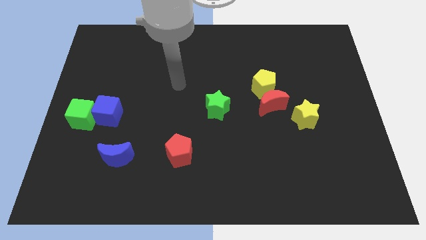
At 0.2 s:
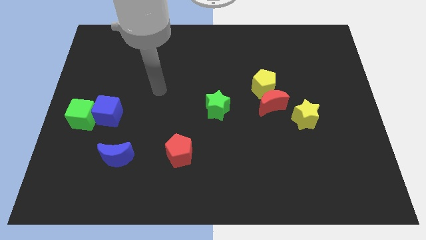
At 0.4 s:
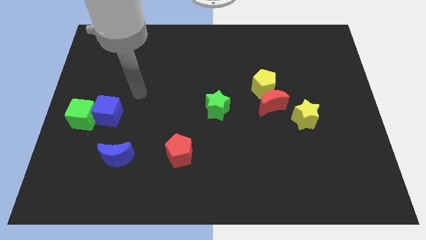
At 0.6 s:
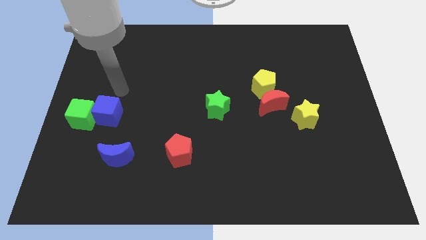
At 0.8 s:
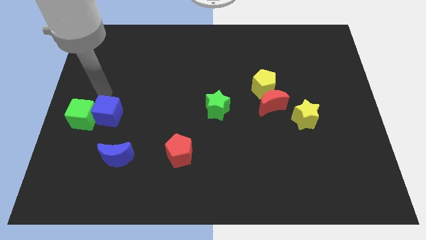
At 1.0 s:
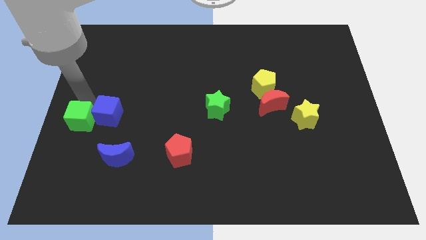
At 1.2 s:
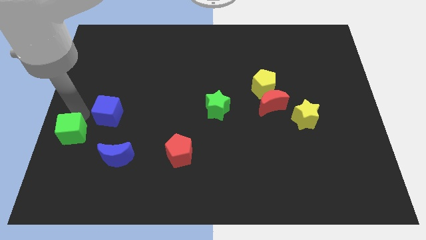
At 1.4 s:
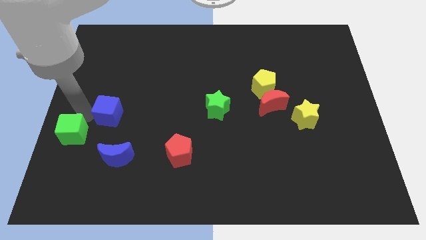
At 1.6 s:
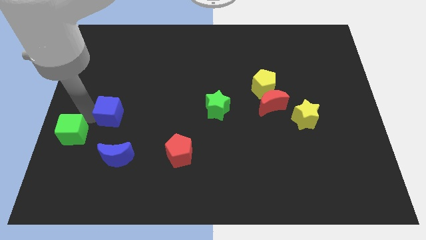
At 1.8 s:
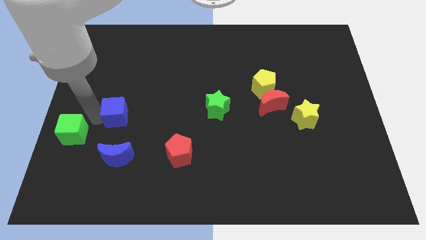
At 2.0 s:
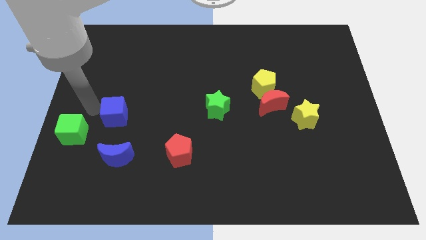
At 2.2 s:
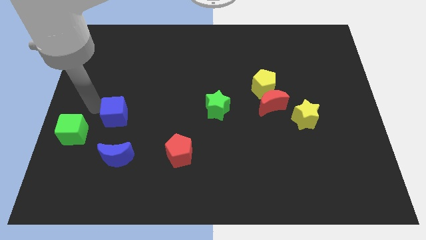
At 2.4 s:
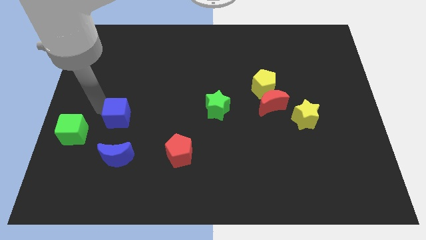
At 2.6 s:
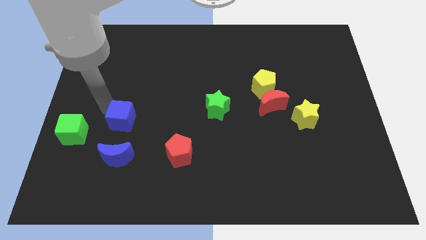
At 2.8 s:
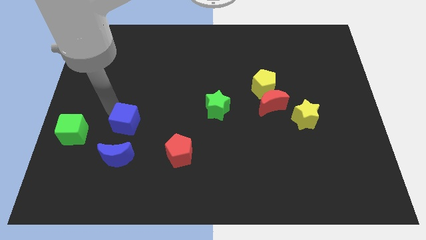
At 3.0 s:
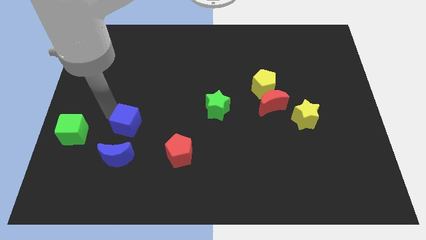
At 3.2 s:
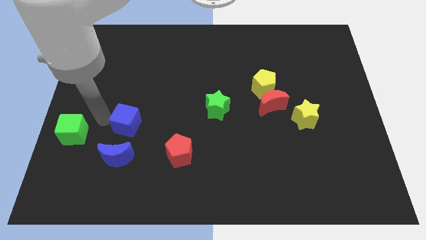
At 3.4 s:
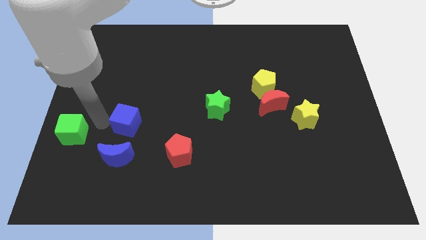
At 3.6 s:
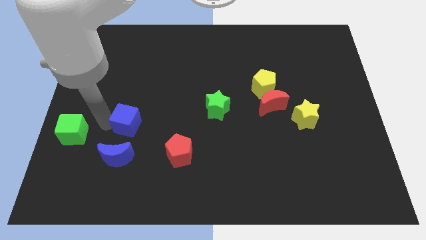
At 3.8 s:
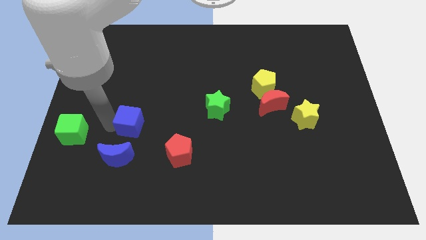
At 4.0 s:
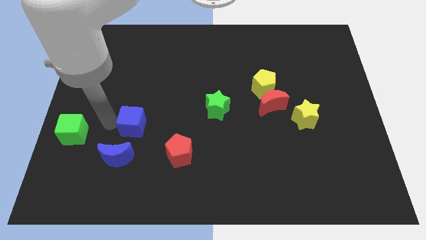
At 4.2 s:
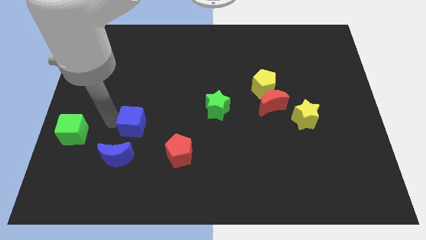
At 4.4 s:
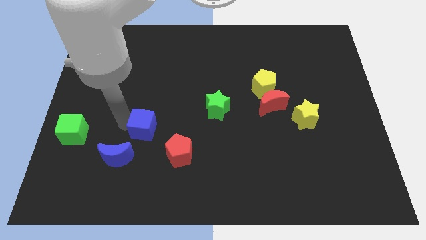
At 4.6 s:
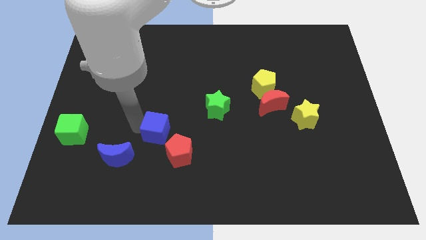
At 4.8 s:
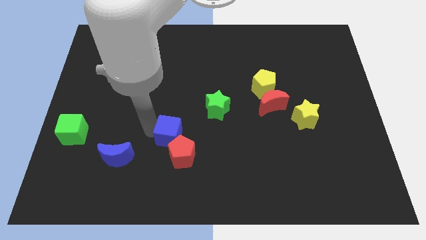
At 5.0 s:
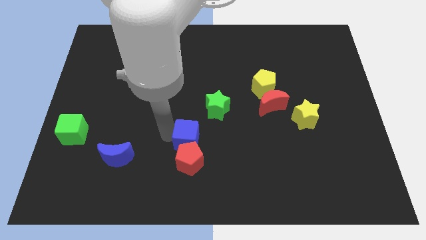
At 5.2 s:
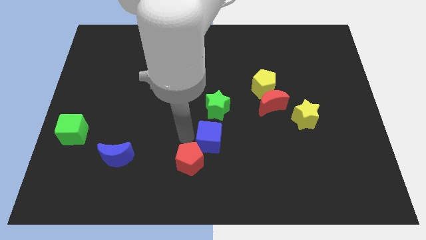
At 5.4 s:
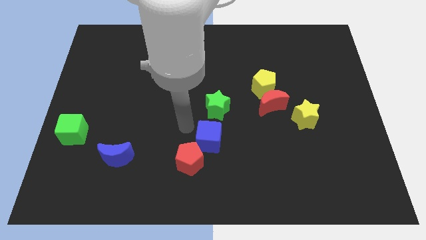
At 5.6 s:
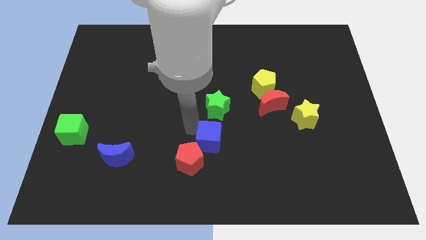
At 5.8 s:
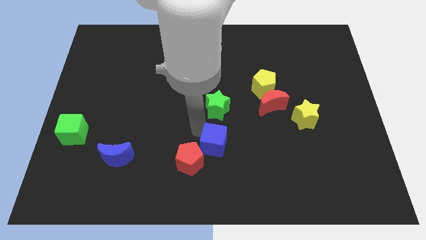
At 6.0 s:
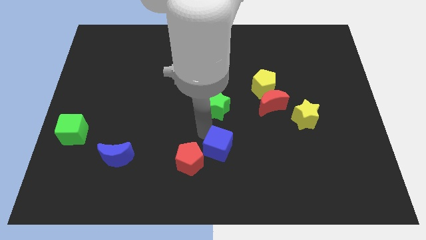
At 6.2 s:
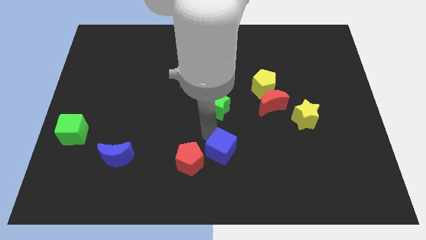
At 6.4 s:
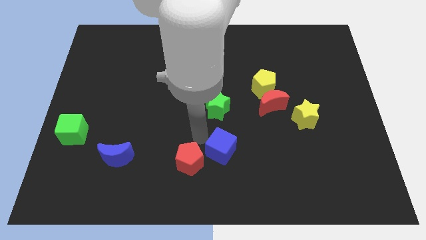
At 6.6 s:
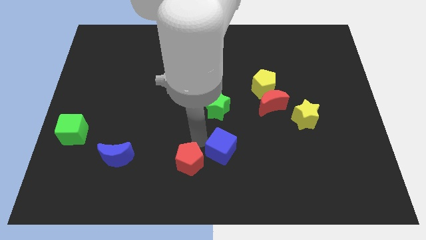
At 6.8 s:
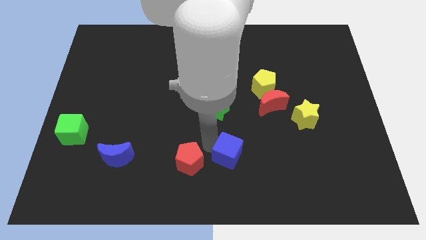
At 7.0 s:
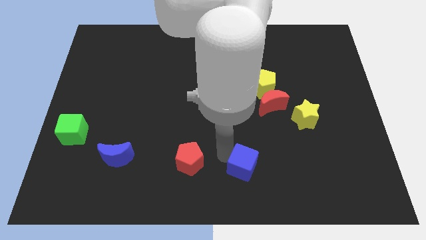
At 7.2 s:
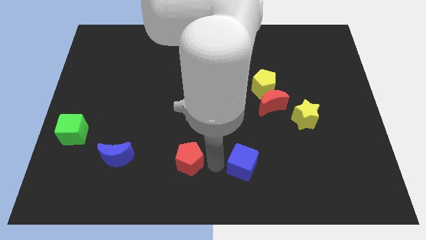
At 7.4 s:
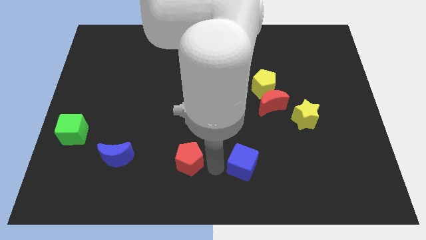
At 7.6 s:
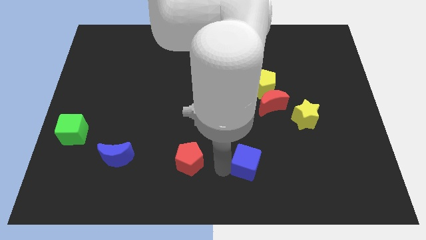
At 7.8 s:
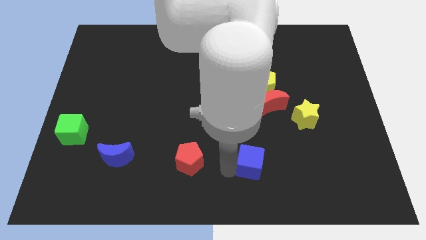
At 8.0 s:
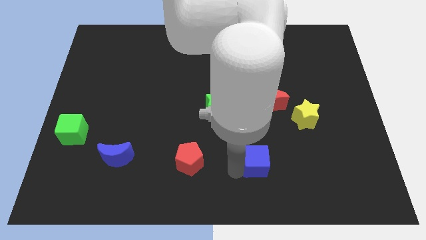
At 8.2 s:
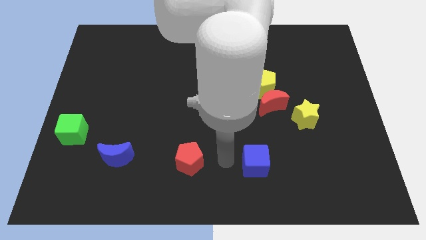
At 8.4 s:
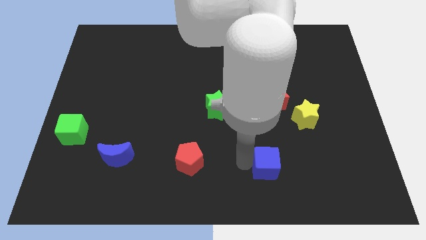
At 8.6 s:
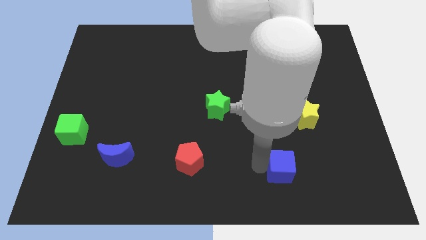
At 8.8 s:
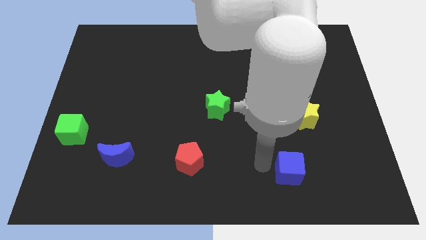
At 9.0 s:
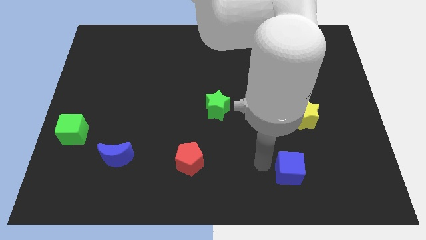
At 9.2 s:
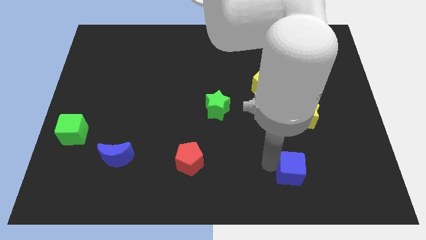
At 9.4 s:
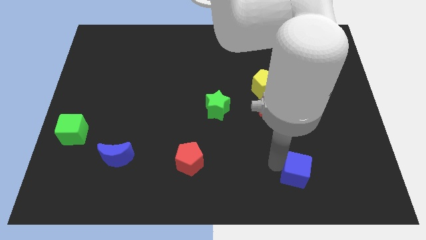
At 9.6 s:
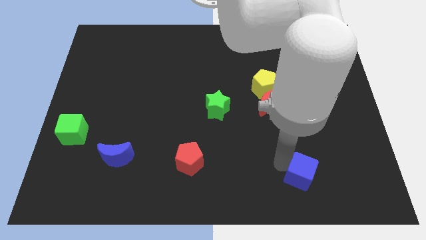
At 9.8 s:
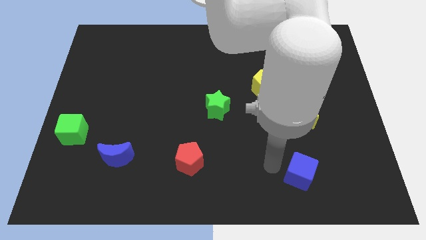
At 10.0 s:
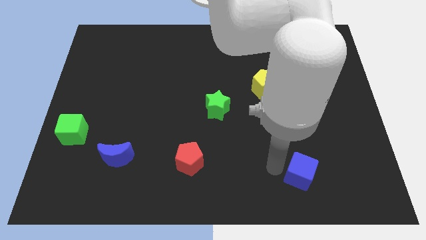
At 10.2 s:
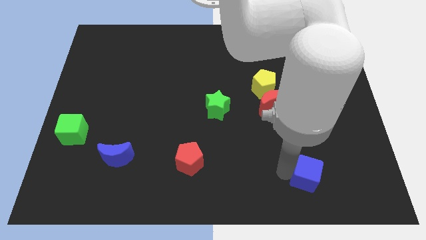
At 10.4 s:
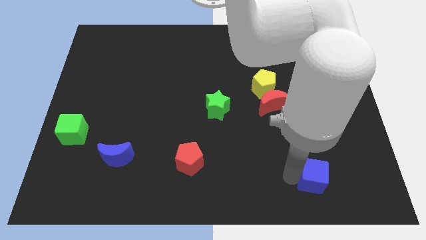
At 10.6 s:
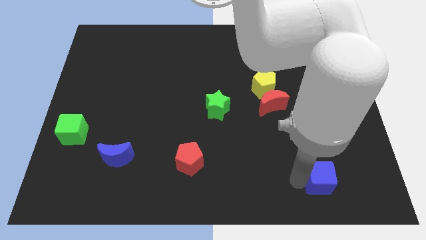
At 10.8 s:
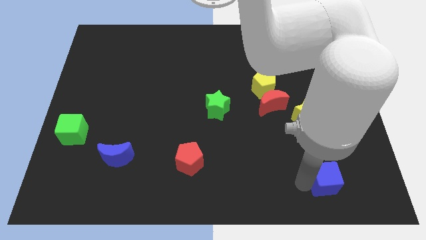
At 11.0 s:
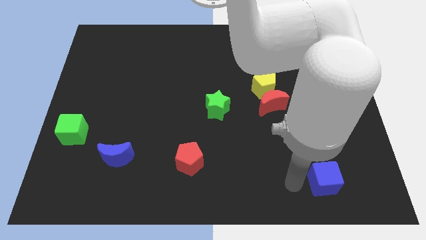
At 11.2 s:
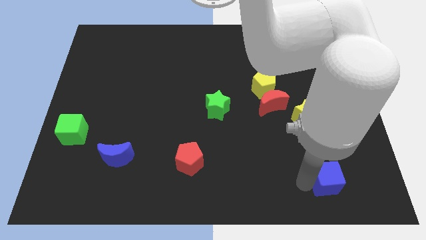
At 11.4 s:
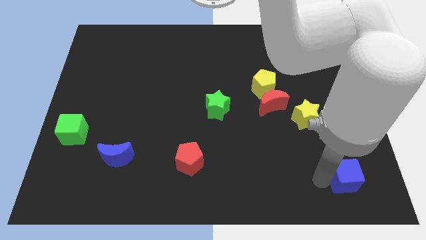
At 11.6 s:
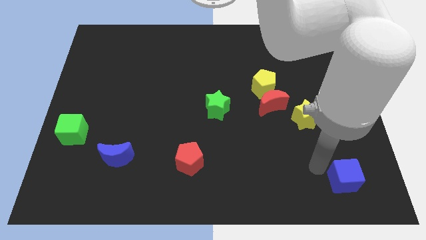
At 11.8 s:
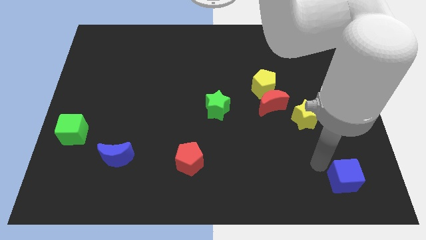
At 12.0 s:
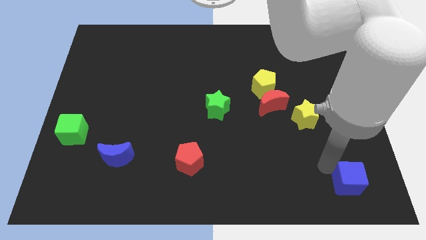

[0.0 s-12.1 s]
slide the blue cube to the bottom right

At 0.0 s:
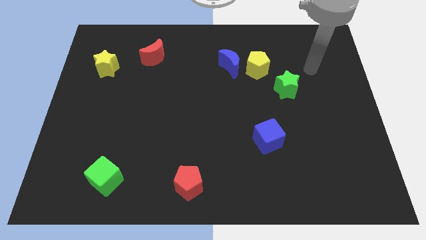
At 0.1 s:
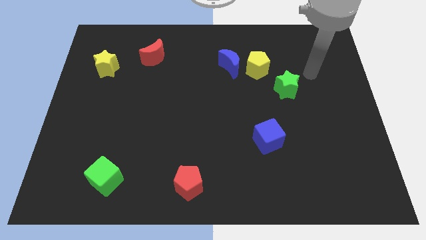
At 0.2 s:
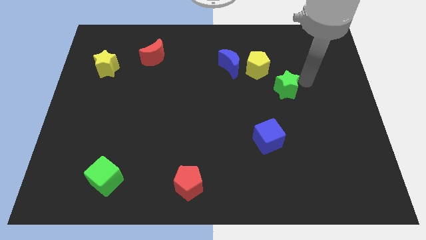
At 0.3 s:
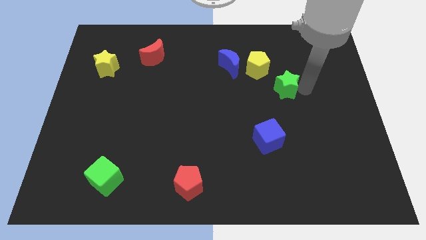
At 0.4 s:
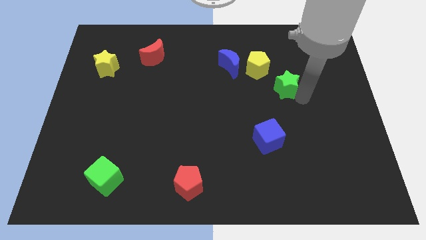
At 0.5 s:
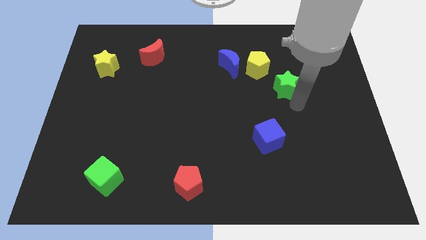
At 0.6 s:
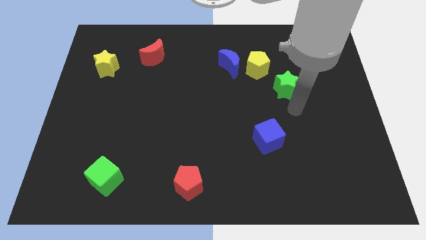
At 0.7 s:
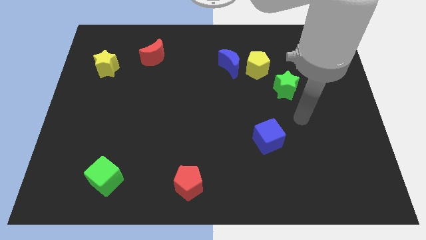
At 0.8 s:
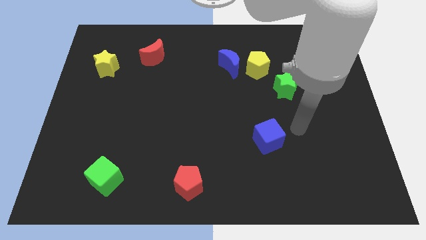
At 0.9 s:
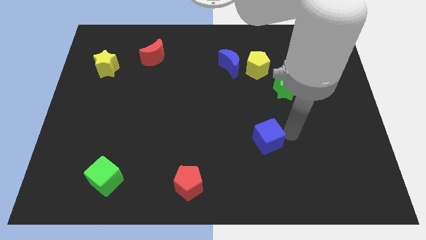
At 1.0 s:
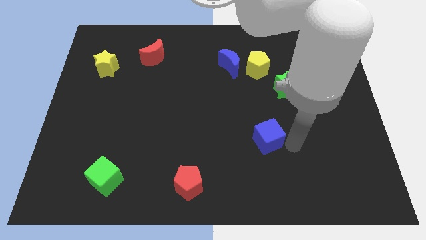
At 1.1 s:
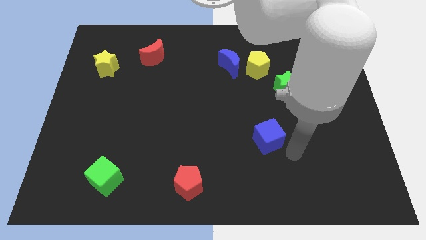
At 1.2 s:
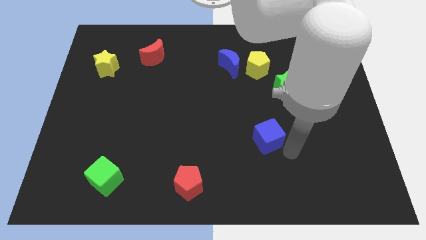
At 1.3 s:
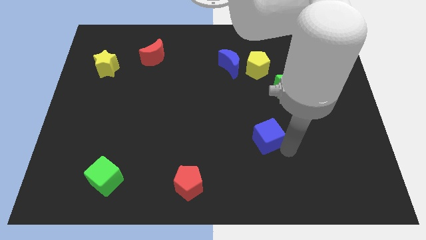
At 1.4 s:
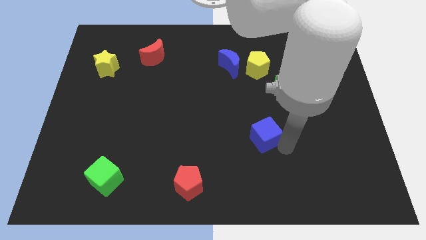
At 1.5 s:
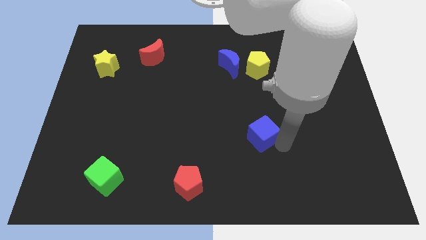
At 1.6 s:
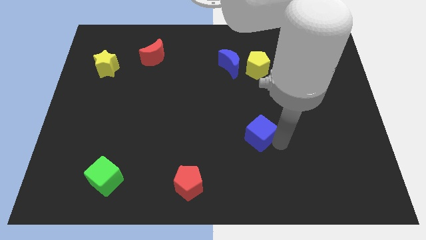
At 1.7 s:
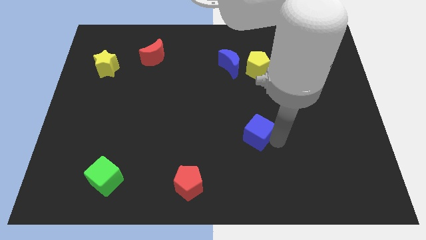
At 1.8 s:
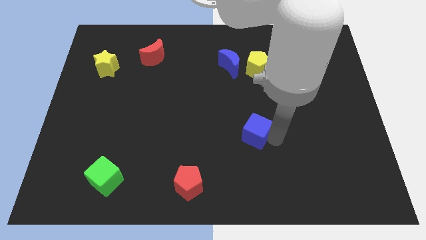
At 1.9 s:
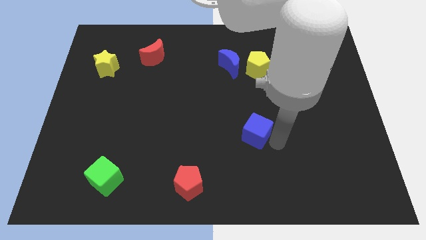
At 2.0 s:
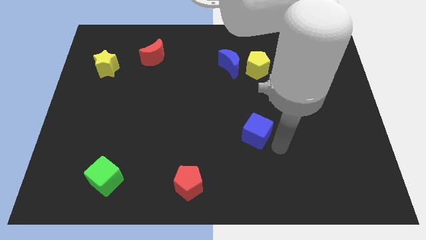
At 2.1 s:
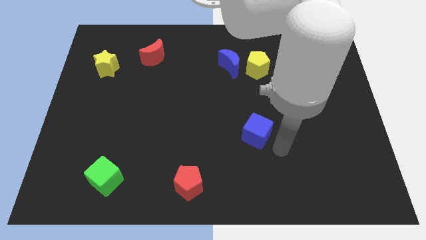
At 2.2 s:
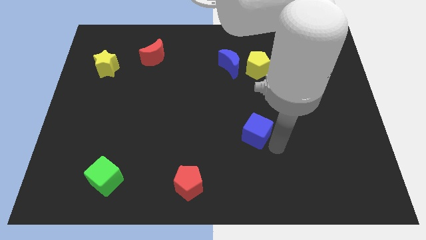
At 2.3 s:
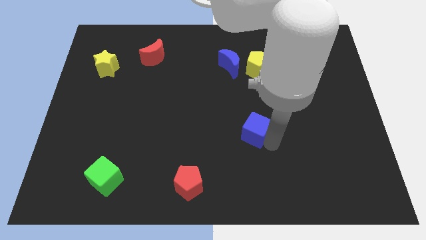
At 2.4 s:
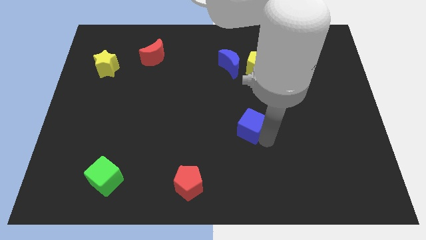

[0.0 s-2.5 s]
slide the blue cube to the middle of the board
